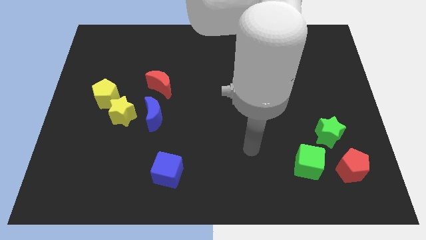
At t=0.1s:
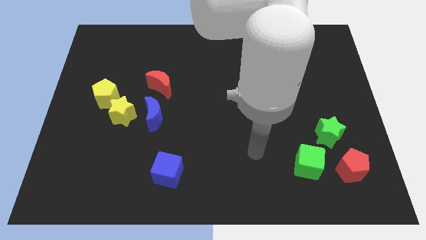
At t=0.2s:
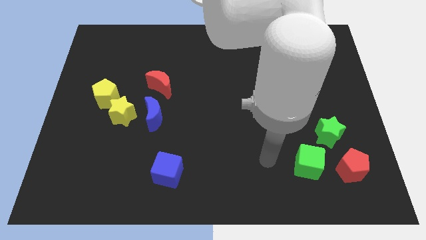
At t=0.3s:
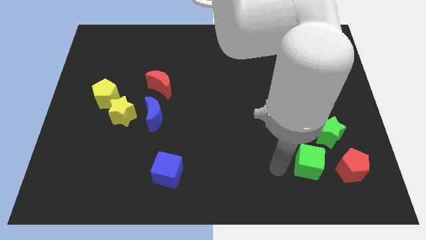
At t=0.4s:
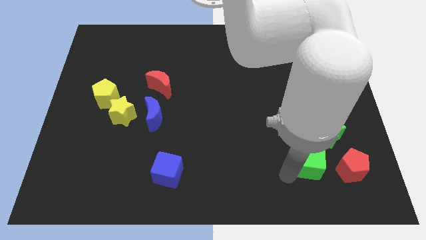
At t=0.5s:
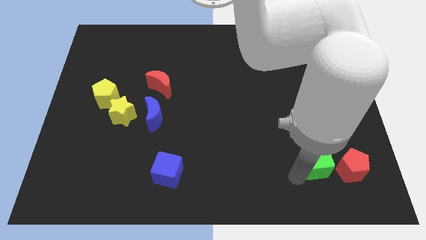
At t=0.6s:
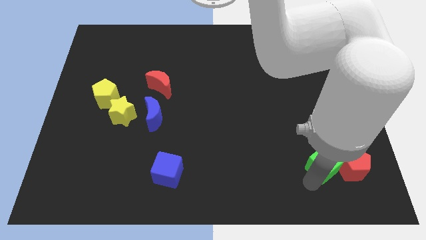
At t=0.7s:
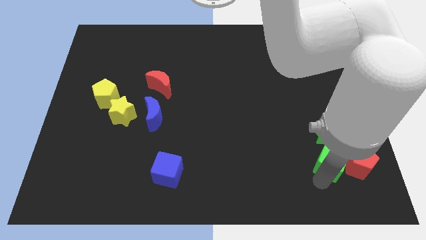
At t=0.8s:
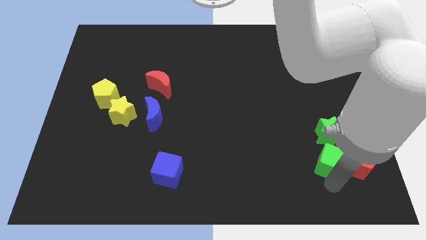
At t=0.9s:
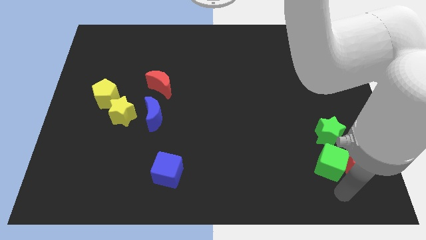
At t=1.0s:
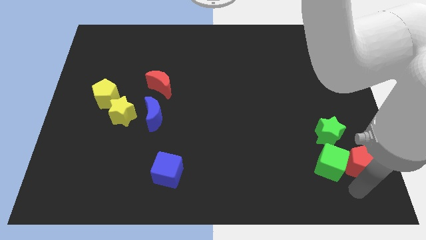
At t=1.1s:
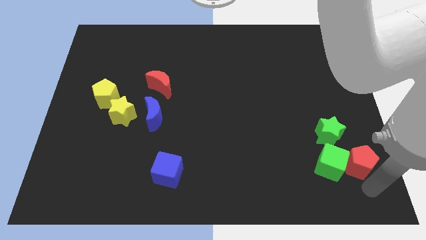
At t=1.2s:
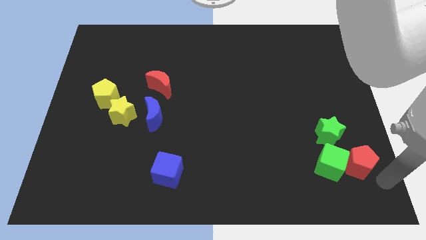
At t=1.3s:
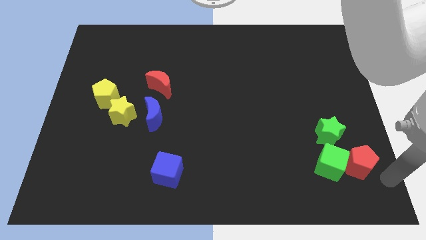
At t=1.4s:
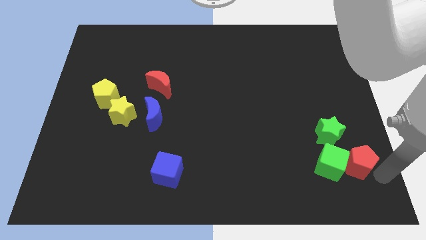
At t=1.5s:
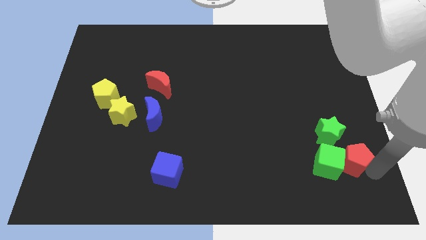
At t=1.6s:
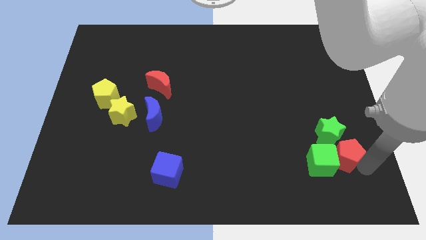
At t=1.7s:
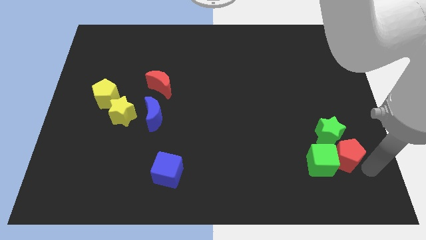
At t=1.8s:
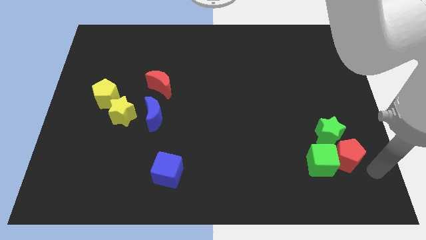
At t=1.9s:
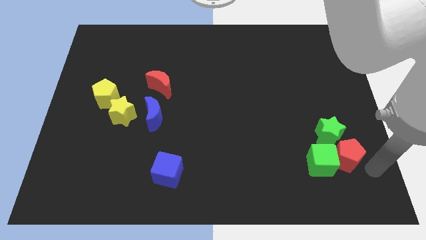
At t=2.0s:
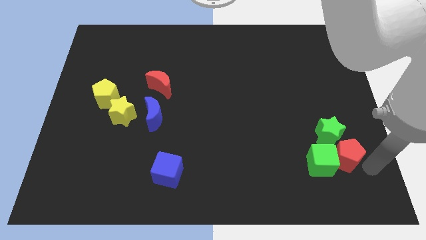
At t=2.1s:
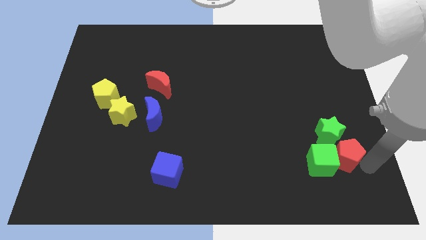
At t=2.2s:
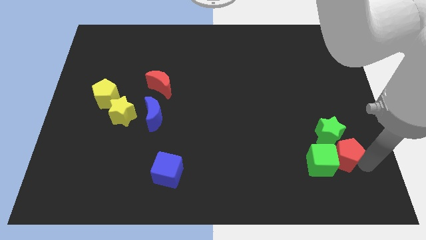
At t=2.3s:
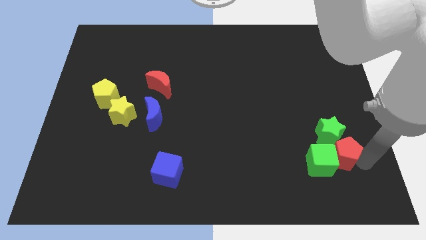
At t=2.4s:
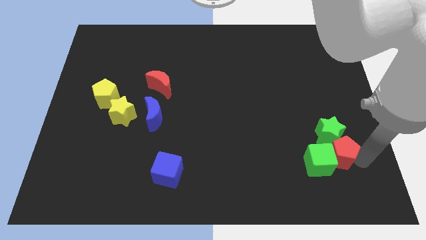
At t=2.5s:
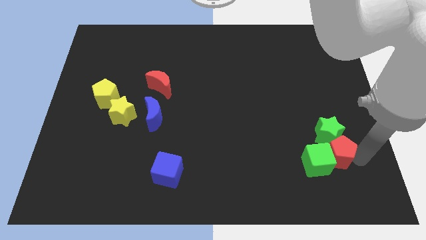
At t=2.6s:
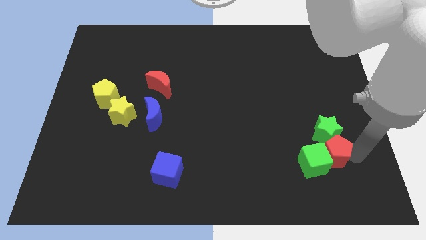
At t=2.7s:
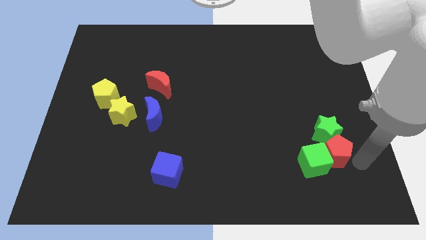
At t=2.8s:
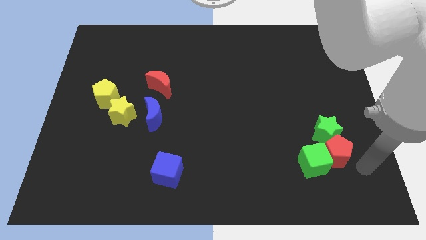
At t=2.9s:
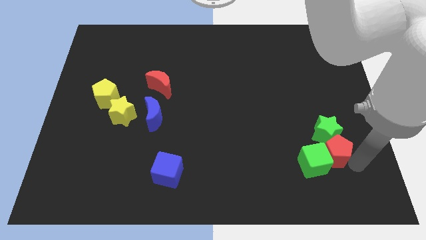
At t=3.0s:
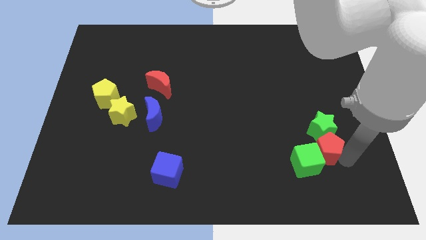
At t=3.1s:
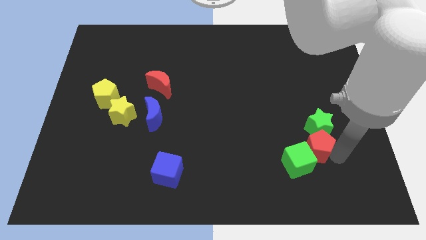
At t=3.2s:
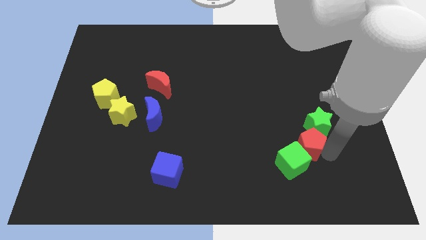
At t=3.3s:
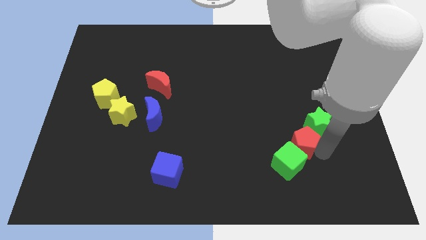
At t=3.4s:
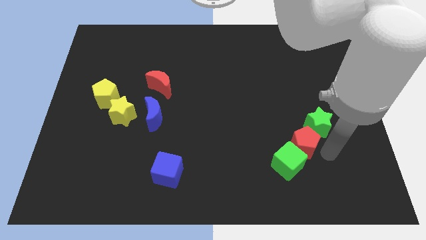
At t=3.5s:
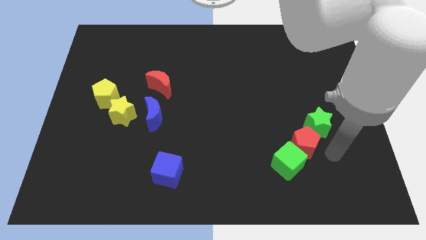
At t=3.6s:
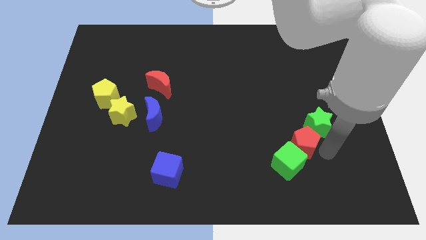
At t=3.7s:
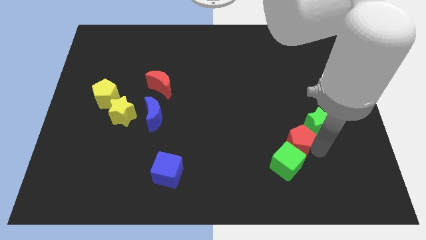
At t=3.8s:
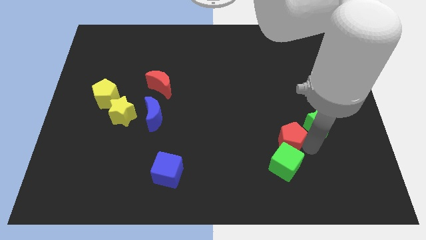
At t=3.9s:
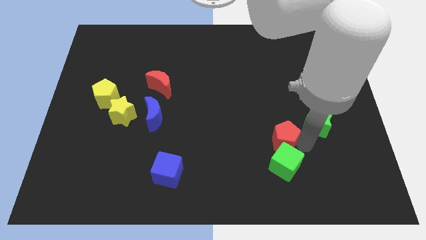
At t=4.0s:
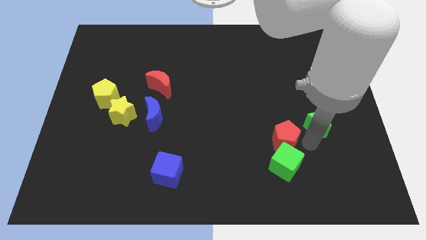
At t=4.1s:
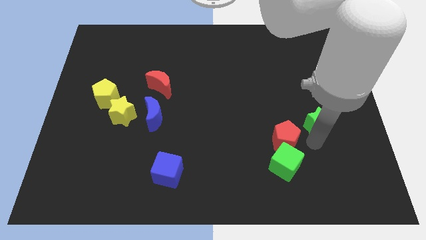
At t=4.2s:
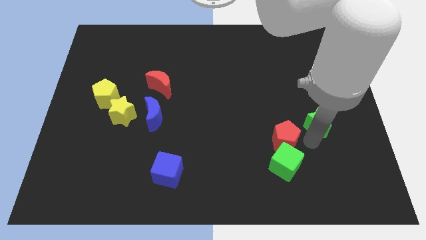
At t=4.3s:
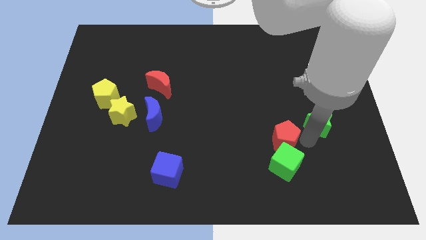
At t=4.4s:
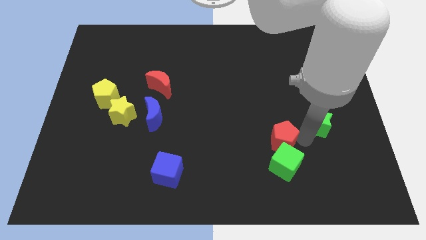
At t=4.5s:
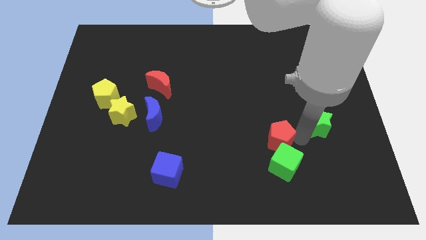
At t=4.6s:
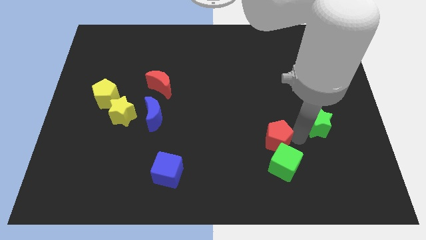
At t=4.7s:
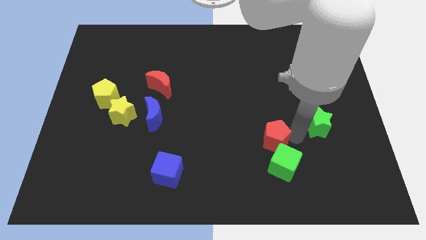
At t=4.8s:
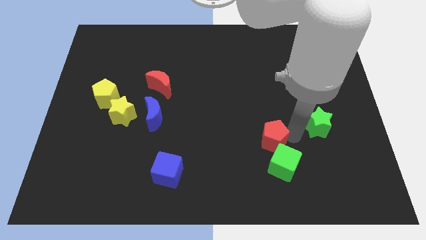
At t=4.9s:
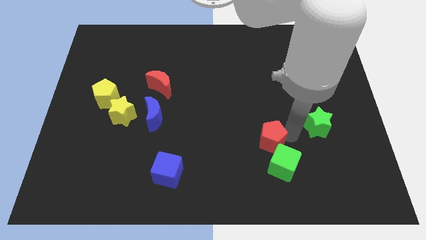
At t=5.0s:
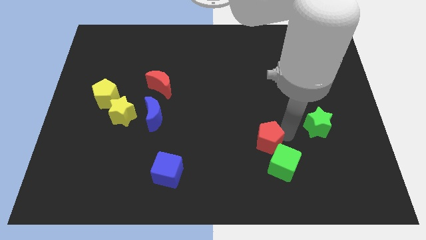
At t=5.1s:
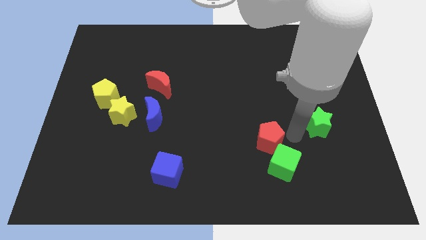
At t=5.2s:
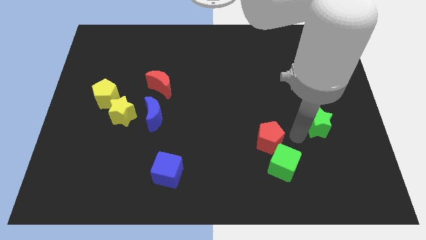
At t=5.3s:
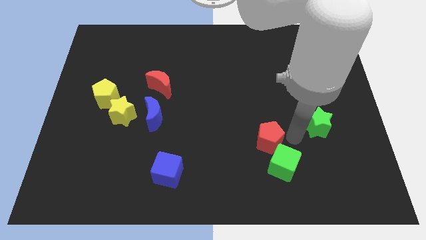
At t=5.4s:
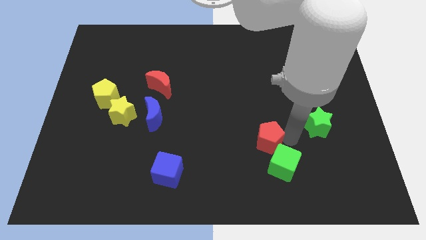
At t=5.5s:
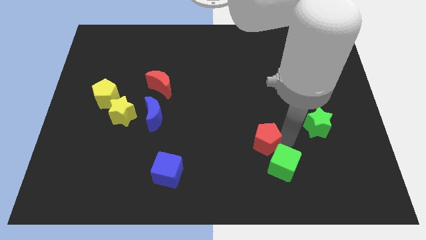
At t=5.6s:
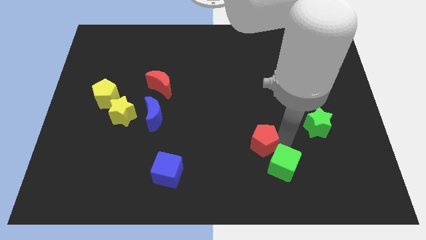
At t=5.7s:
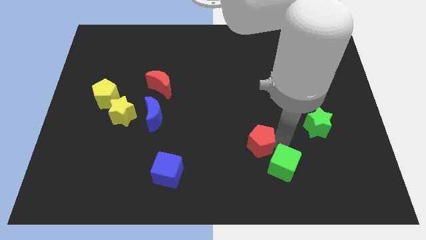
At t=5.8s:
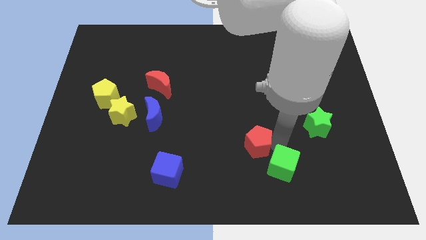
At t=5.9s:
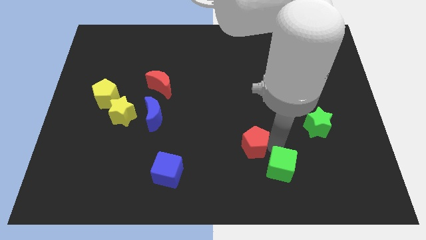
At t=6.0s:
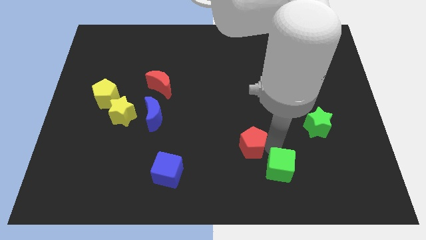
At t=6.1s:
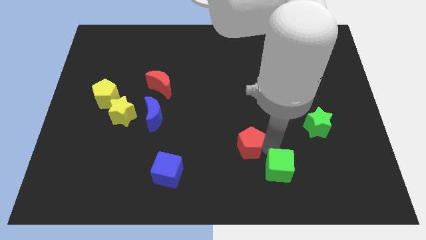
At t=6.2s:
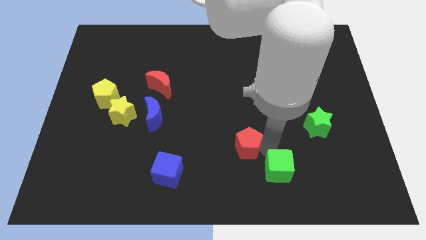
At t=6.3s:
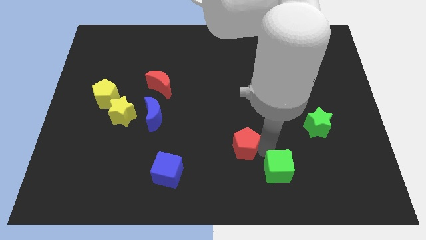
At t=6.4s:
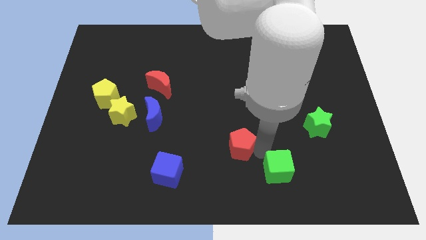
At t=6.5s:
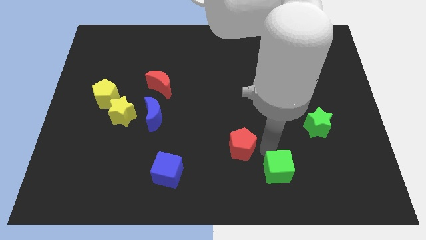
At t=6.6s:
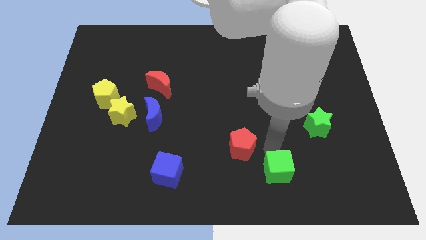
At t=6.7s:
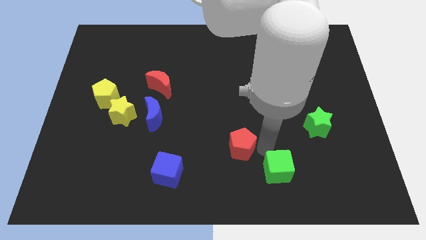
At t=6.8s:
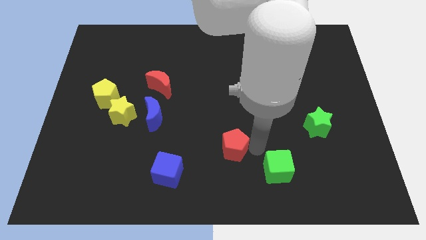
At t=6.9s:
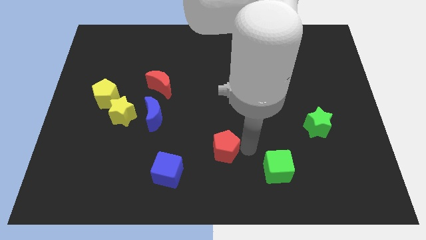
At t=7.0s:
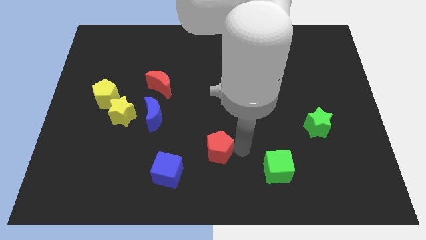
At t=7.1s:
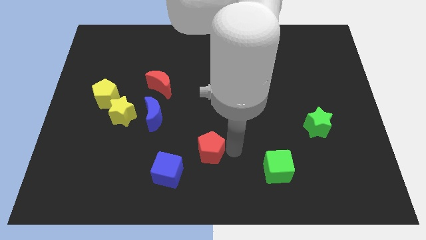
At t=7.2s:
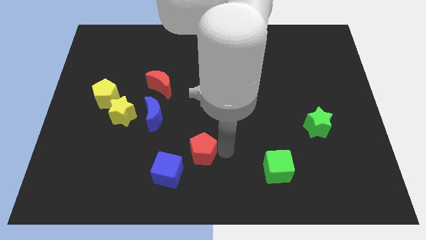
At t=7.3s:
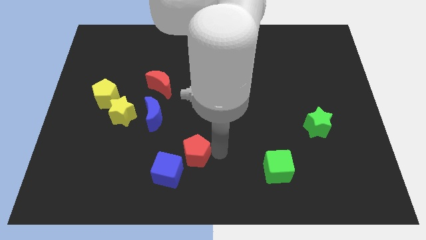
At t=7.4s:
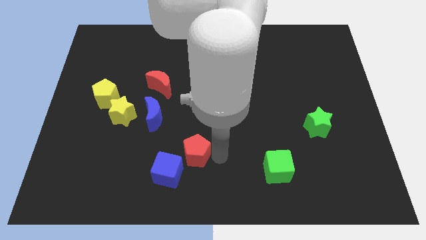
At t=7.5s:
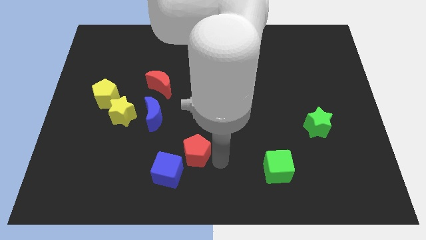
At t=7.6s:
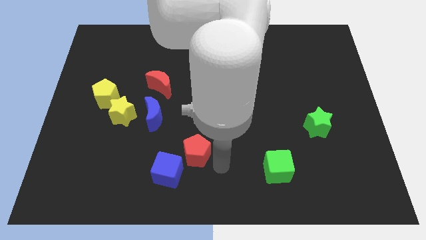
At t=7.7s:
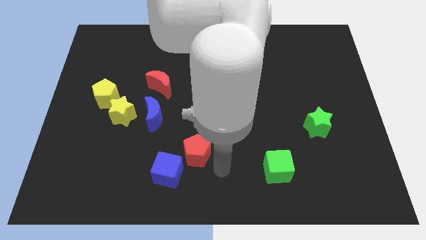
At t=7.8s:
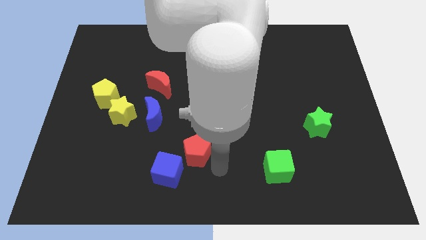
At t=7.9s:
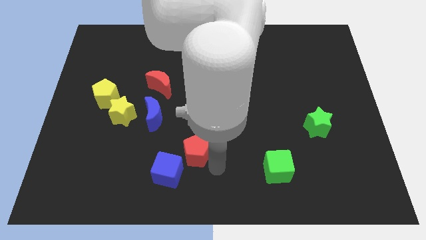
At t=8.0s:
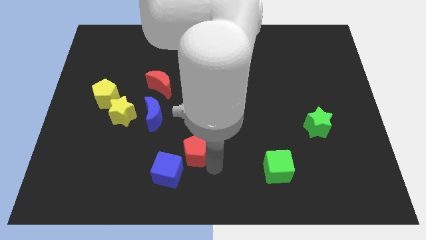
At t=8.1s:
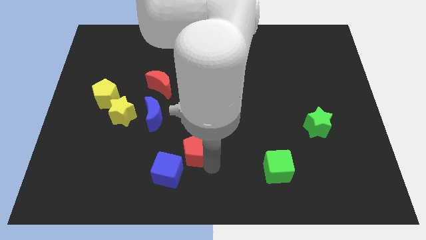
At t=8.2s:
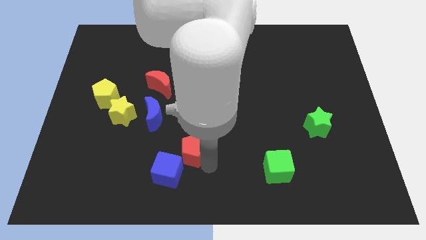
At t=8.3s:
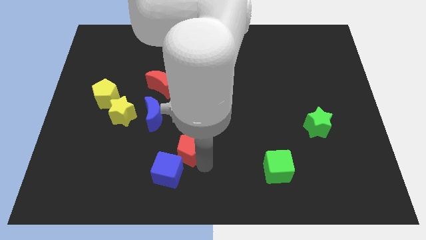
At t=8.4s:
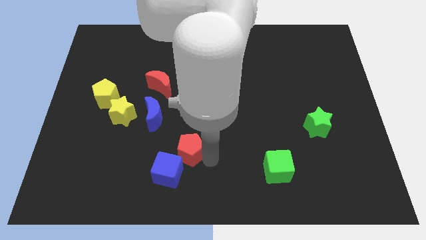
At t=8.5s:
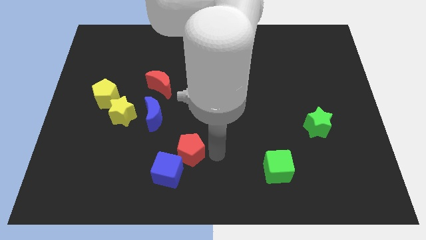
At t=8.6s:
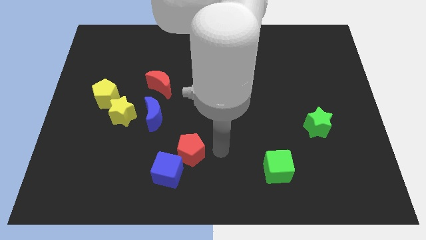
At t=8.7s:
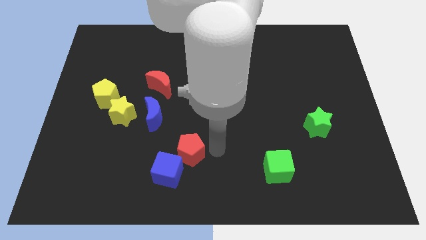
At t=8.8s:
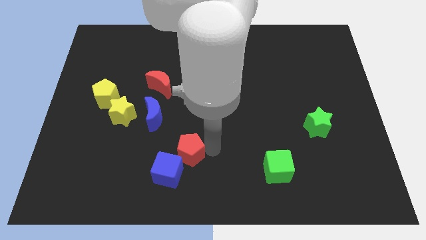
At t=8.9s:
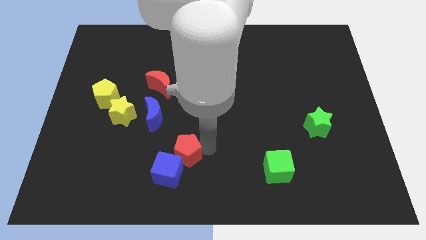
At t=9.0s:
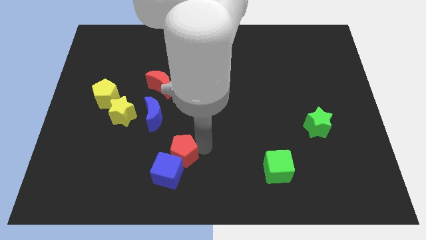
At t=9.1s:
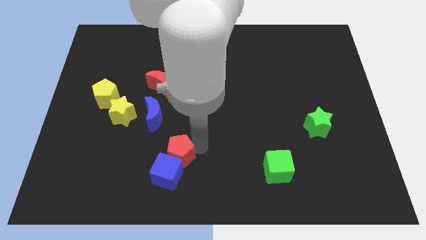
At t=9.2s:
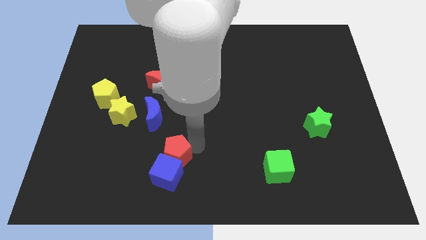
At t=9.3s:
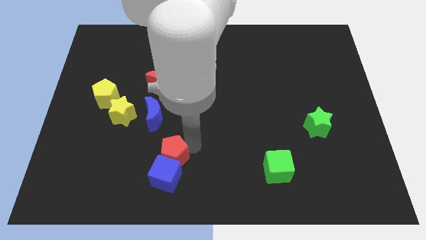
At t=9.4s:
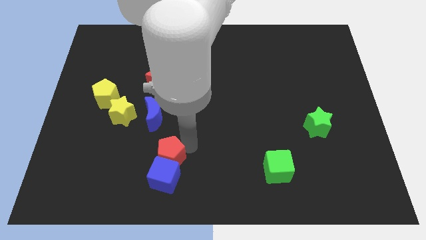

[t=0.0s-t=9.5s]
slide the red pentagon to the bottom side of the blue moon
